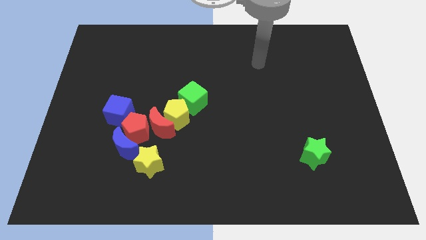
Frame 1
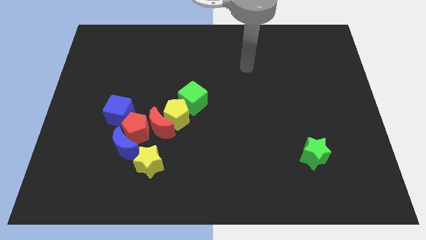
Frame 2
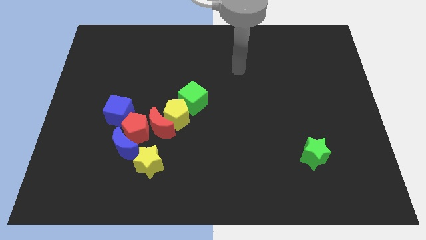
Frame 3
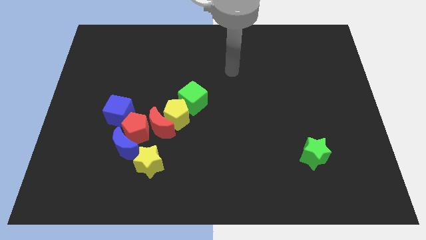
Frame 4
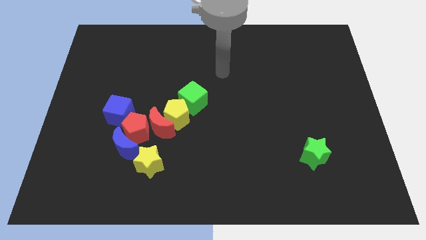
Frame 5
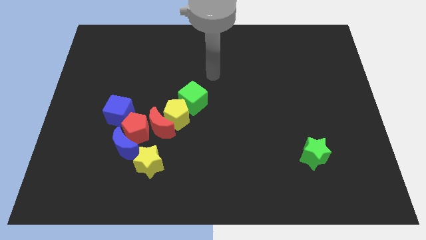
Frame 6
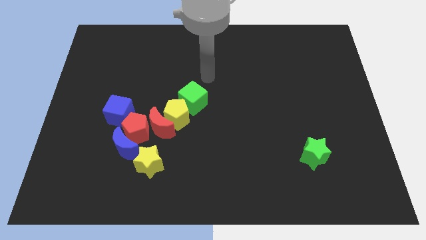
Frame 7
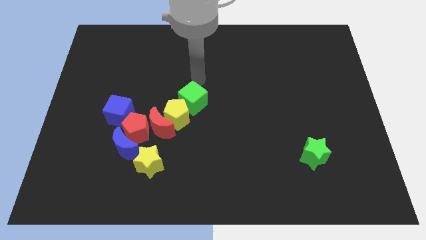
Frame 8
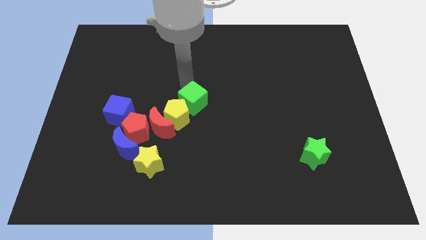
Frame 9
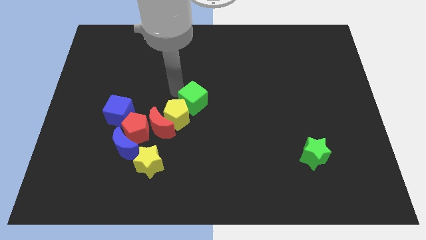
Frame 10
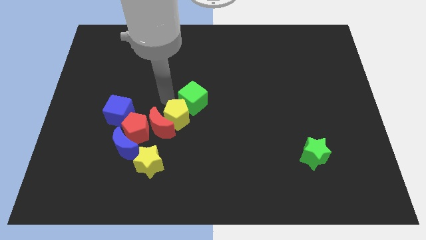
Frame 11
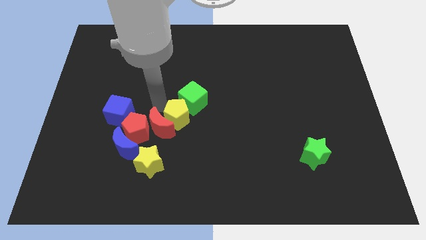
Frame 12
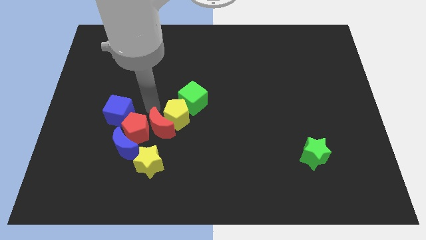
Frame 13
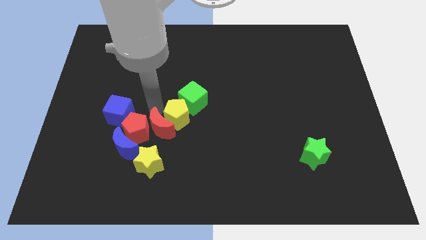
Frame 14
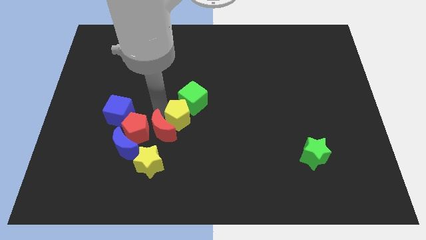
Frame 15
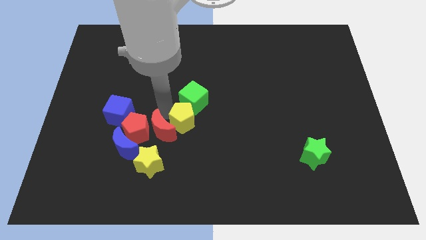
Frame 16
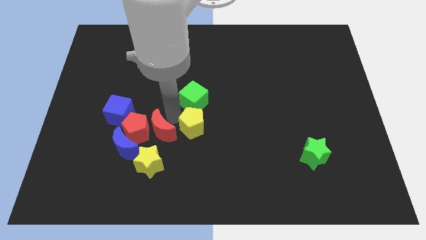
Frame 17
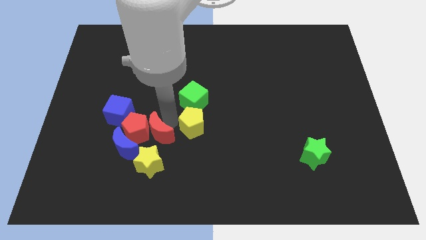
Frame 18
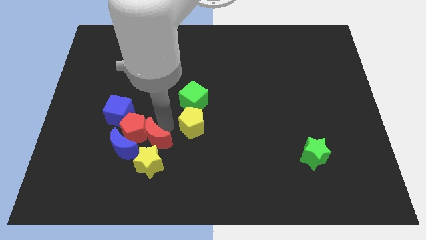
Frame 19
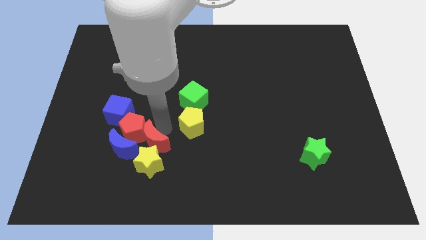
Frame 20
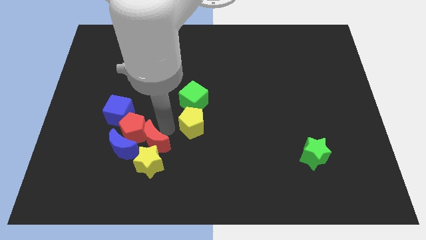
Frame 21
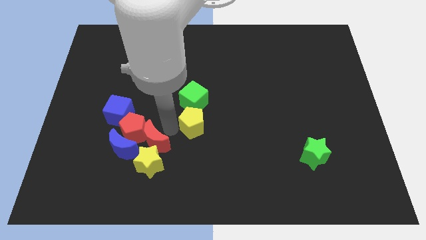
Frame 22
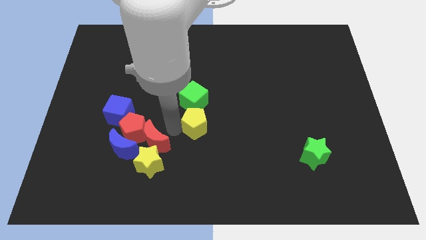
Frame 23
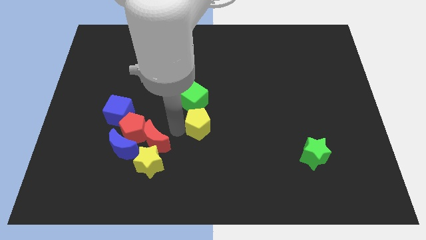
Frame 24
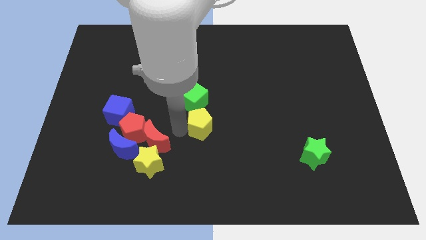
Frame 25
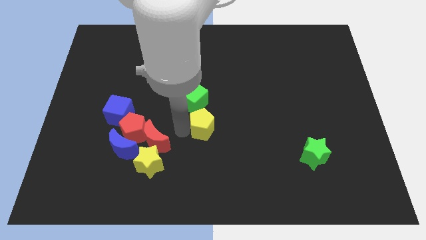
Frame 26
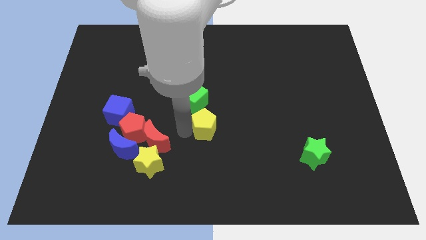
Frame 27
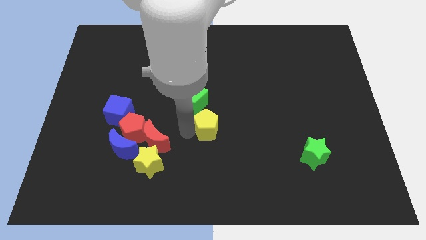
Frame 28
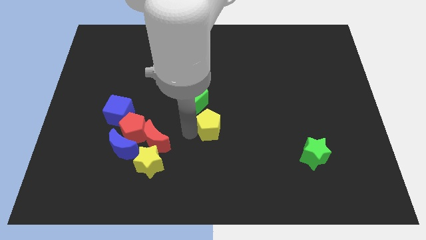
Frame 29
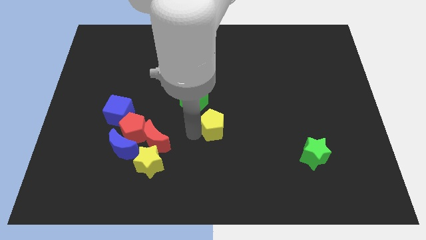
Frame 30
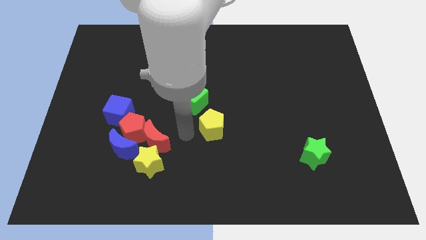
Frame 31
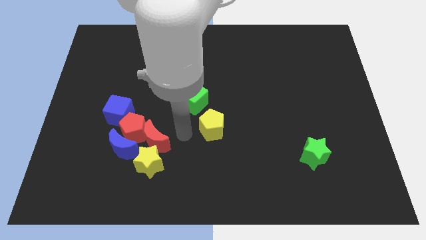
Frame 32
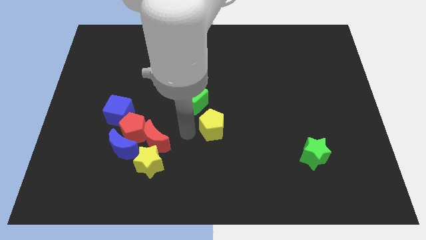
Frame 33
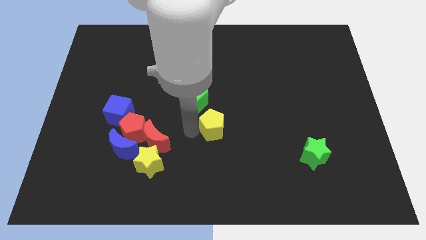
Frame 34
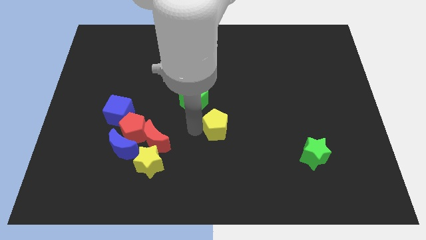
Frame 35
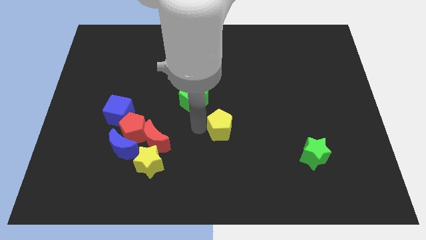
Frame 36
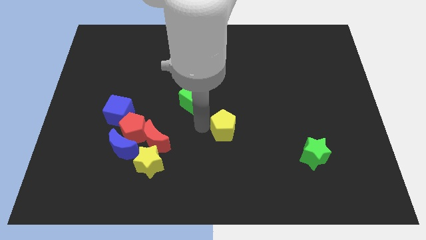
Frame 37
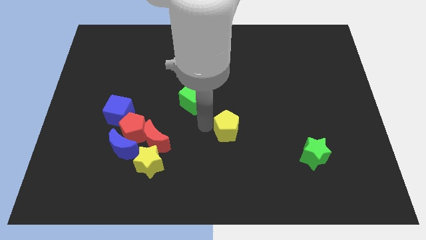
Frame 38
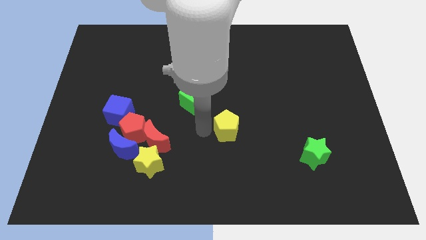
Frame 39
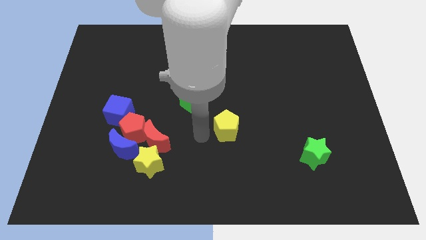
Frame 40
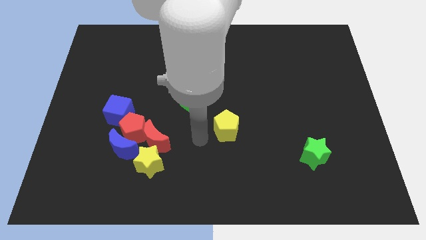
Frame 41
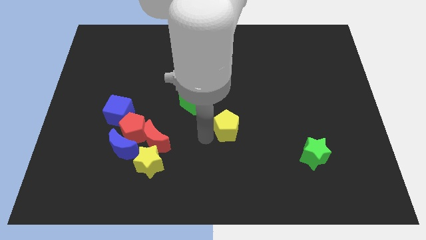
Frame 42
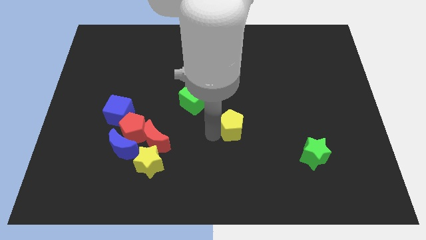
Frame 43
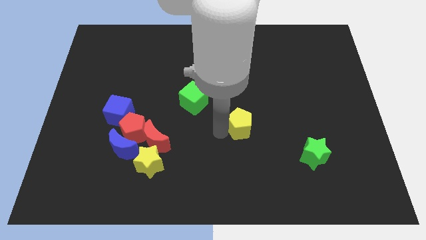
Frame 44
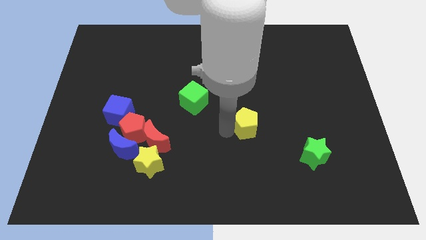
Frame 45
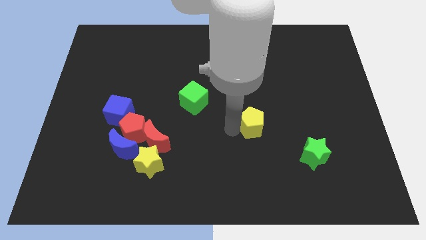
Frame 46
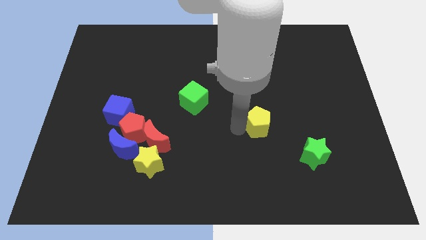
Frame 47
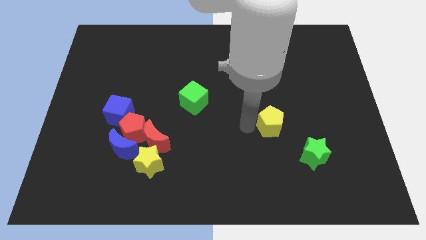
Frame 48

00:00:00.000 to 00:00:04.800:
push the yellow pentagon right

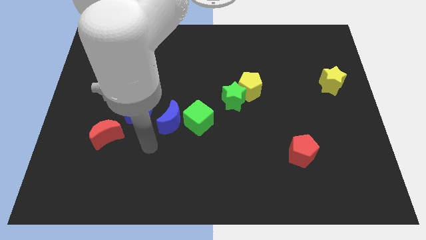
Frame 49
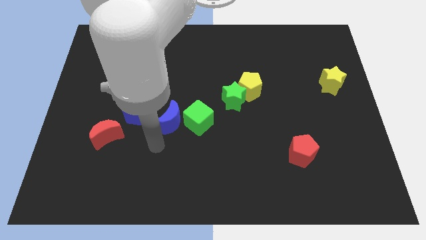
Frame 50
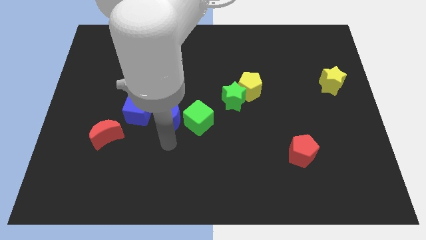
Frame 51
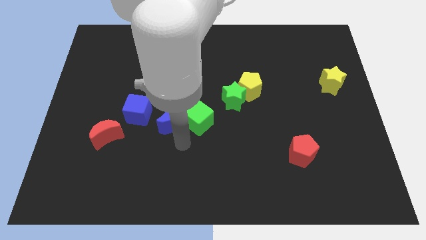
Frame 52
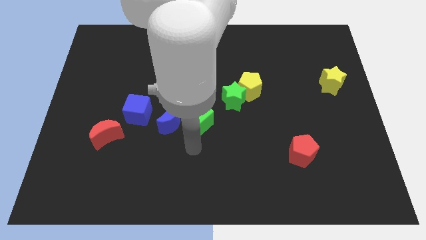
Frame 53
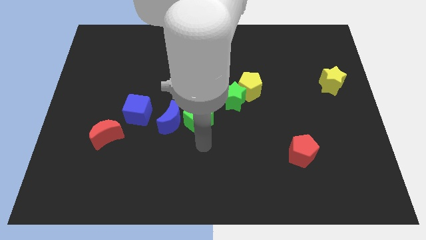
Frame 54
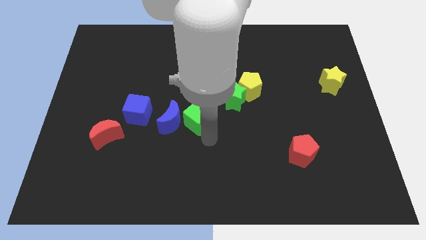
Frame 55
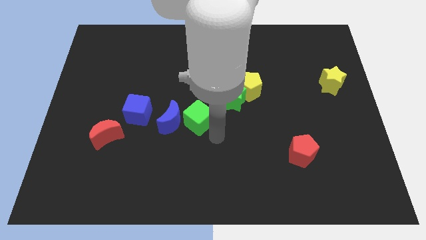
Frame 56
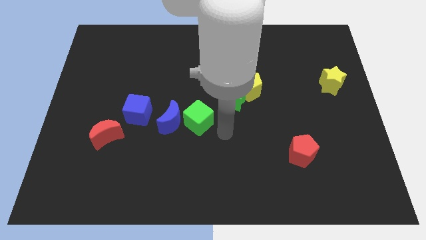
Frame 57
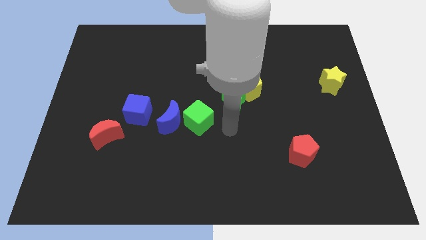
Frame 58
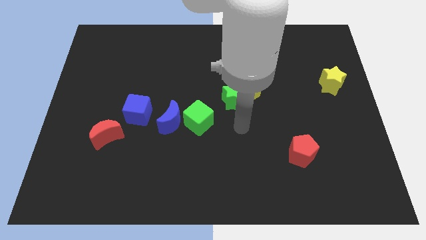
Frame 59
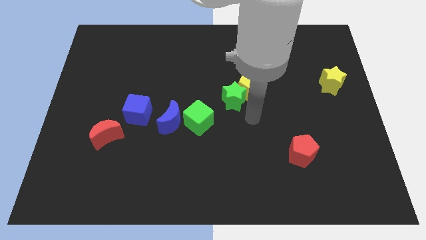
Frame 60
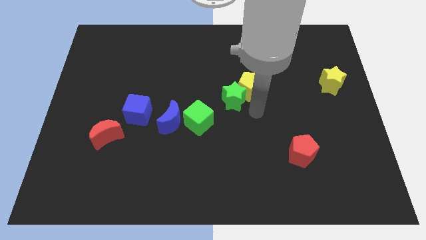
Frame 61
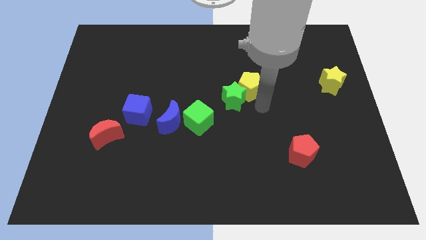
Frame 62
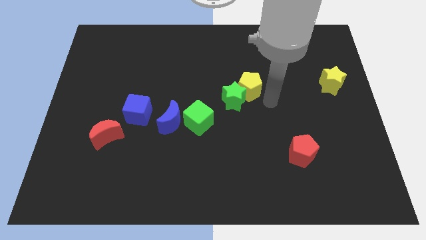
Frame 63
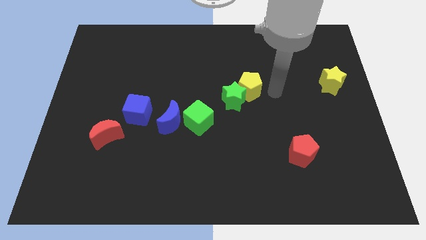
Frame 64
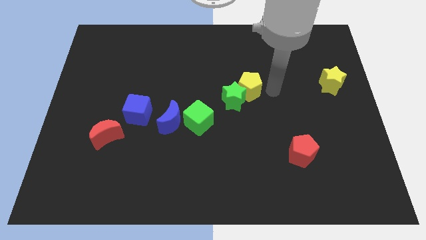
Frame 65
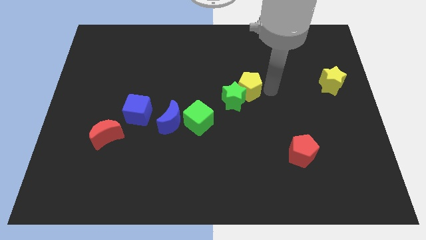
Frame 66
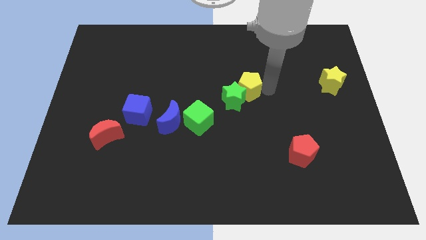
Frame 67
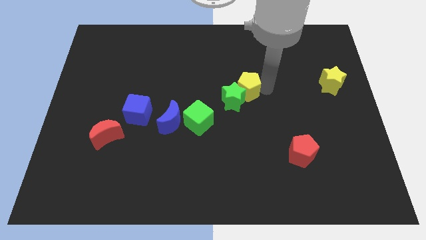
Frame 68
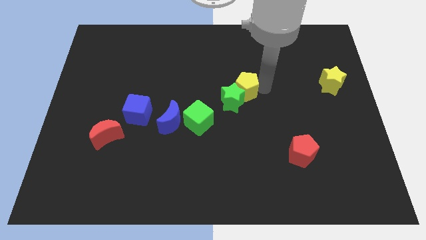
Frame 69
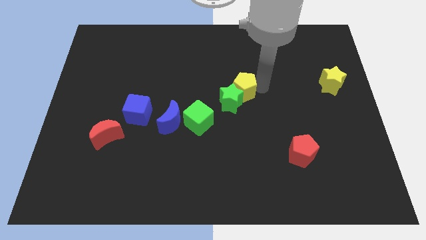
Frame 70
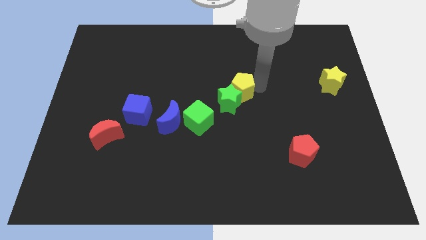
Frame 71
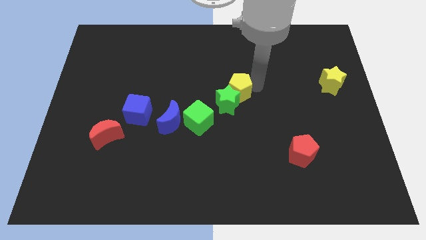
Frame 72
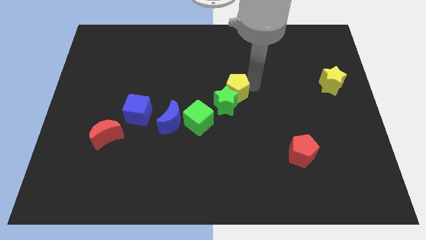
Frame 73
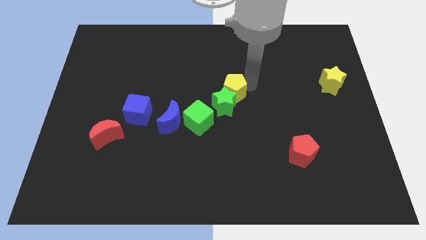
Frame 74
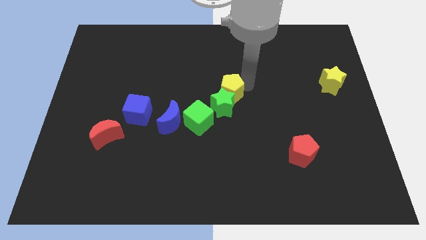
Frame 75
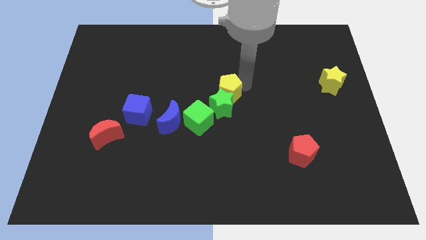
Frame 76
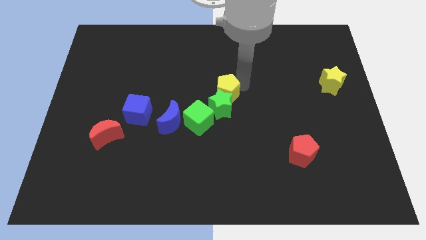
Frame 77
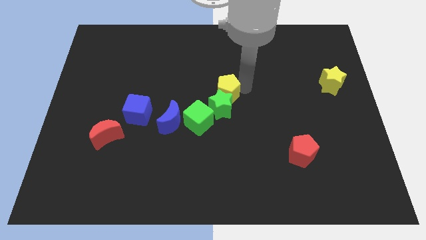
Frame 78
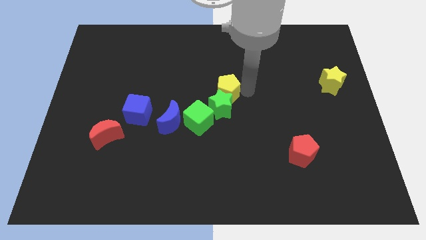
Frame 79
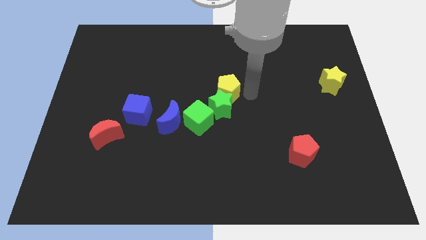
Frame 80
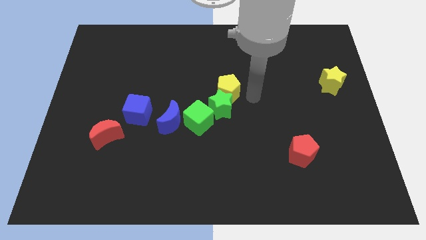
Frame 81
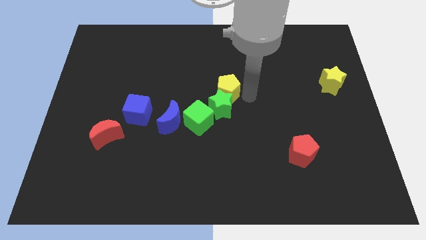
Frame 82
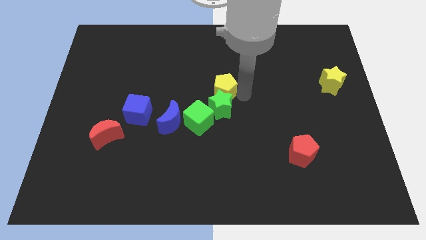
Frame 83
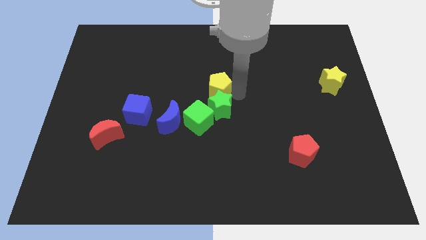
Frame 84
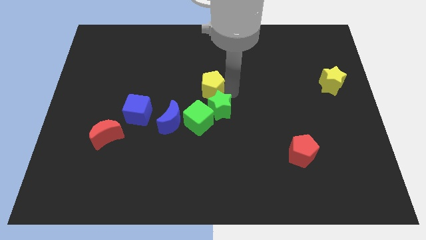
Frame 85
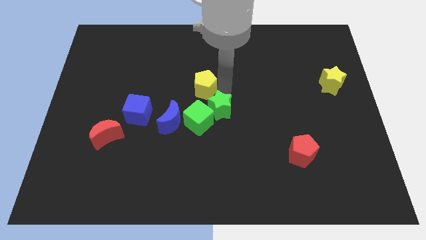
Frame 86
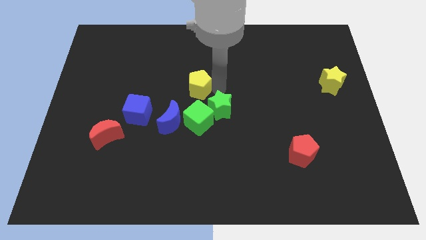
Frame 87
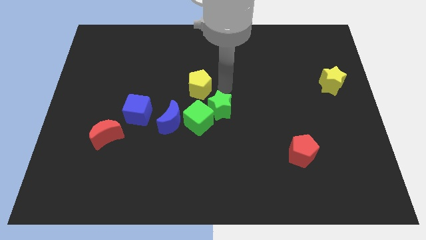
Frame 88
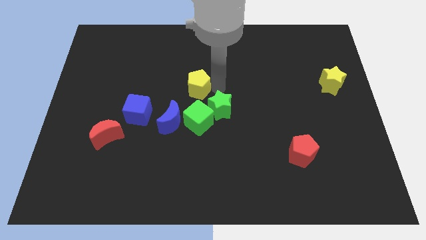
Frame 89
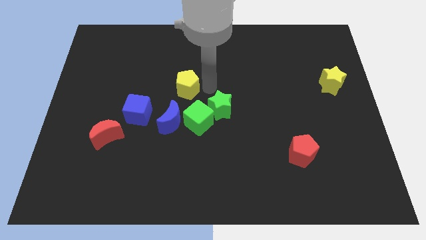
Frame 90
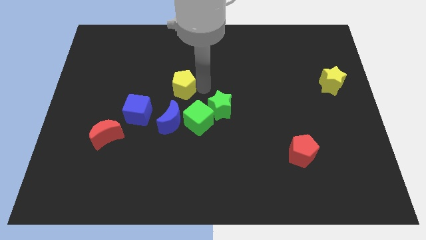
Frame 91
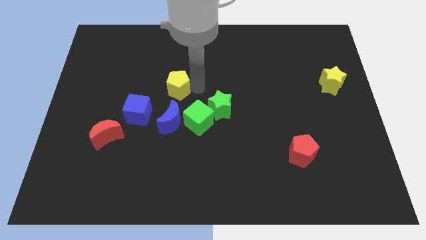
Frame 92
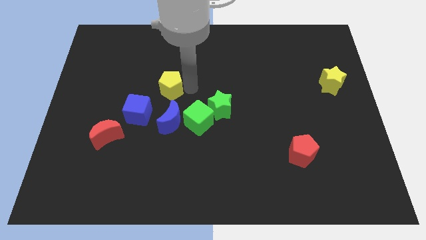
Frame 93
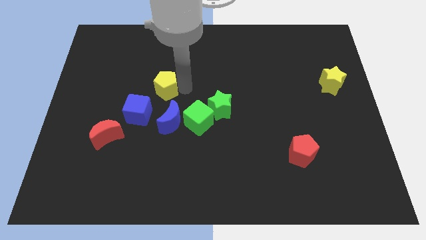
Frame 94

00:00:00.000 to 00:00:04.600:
slide the yellow pentagon left
